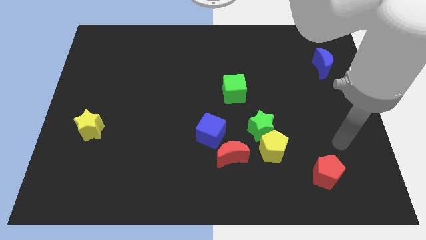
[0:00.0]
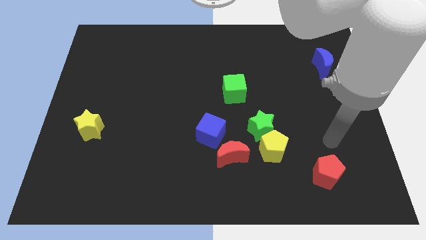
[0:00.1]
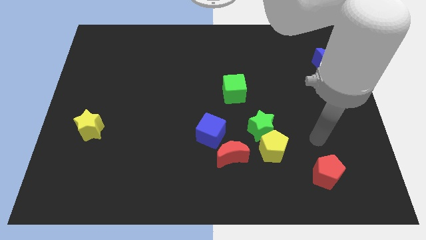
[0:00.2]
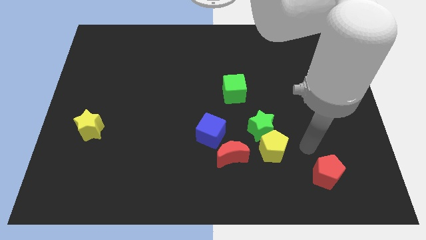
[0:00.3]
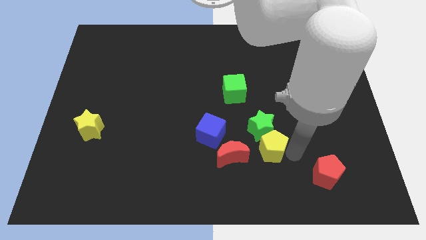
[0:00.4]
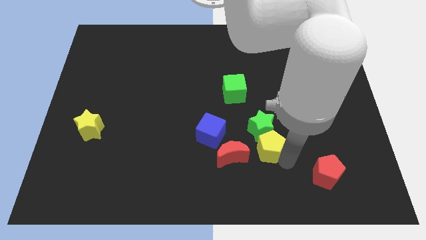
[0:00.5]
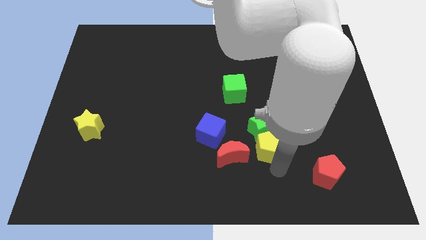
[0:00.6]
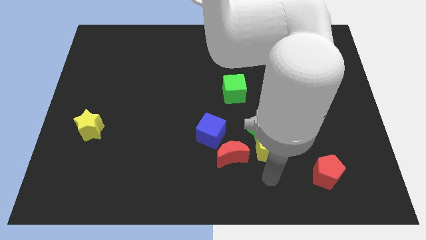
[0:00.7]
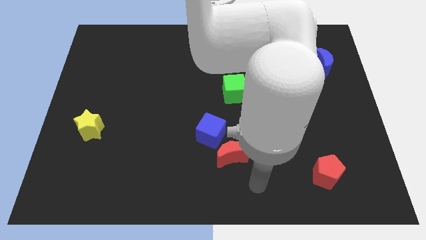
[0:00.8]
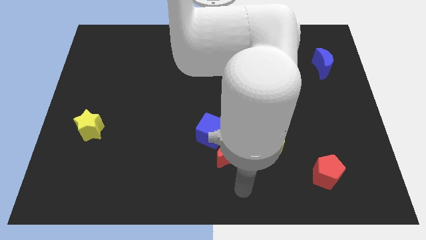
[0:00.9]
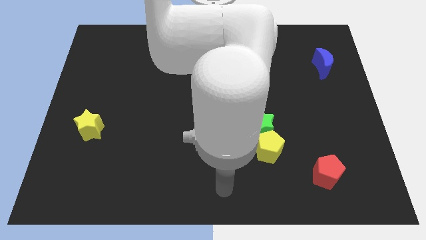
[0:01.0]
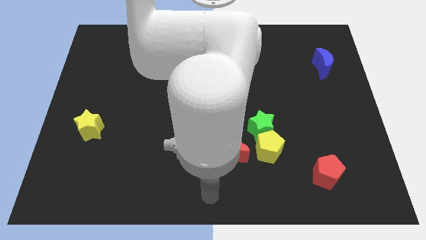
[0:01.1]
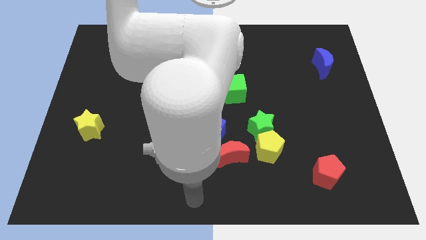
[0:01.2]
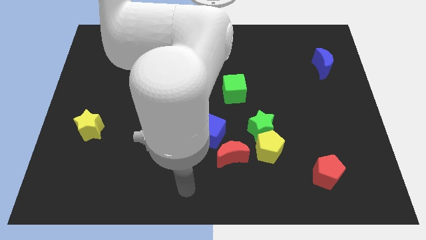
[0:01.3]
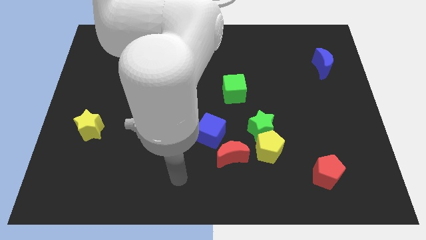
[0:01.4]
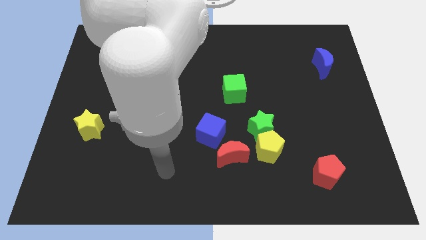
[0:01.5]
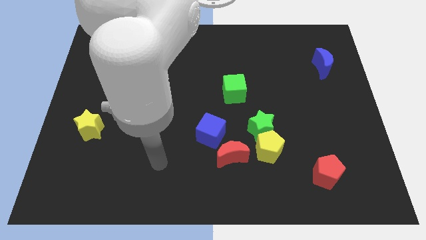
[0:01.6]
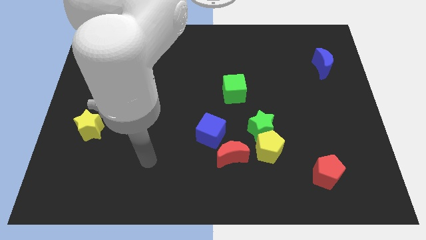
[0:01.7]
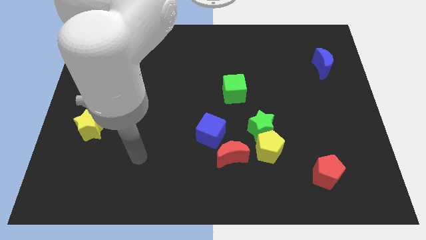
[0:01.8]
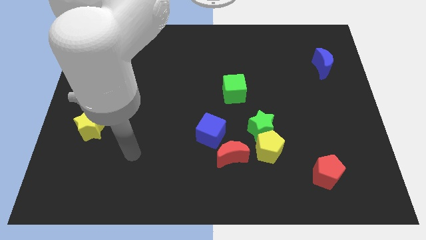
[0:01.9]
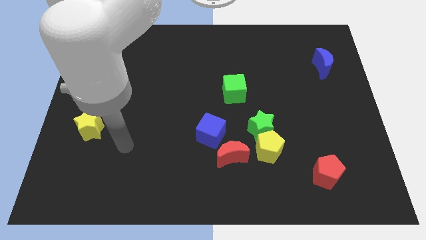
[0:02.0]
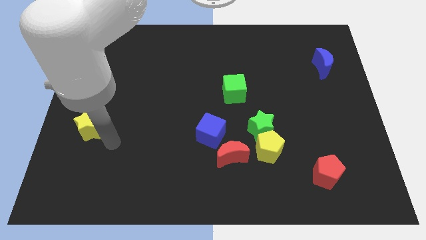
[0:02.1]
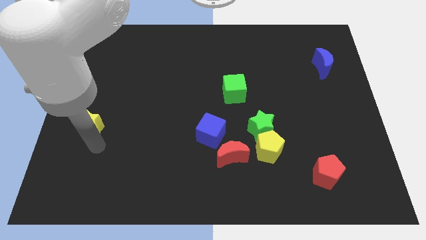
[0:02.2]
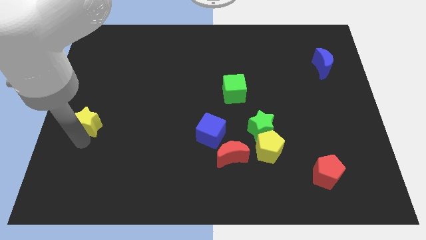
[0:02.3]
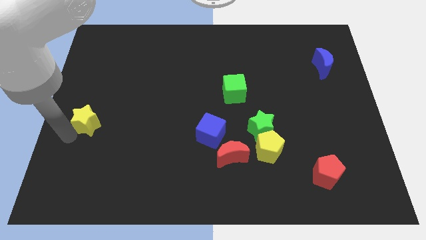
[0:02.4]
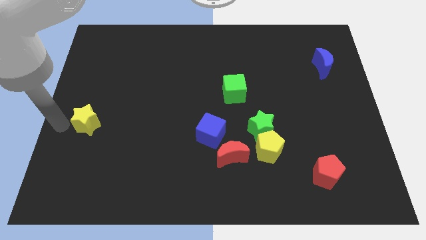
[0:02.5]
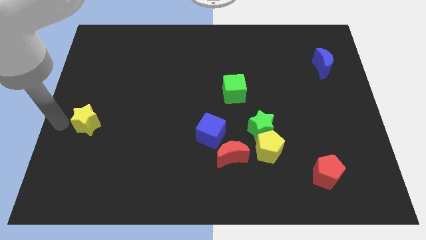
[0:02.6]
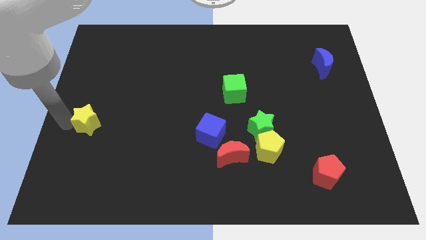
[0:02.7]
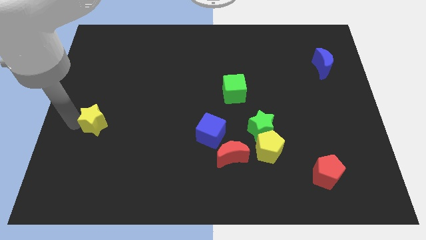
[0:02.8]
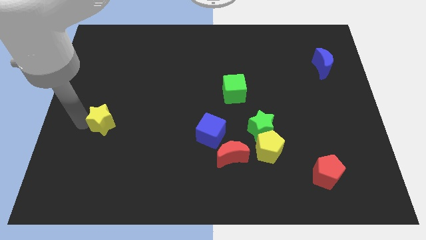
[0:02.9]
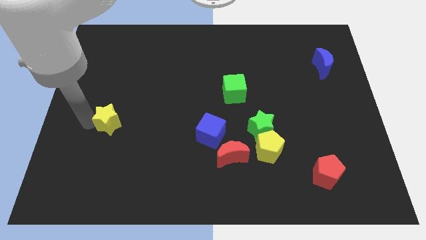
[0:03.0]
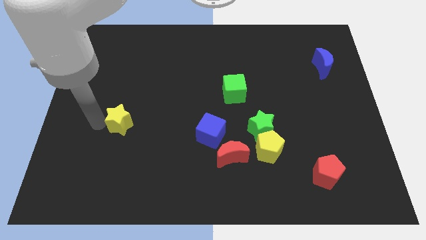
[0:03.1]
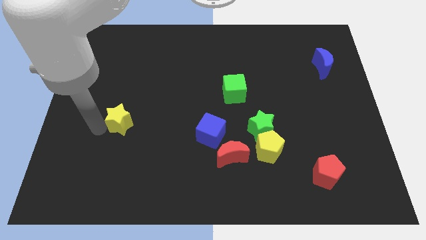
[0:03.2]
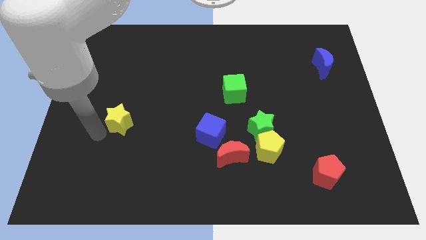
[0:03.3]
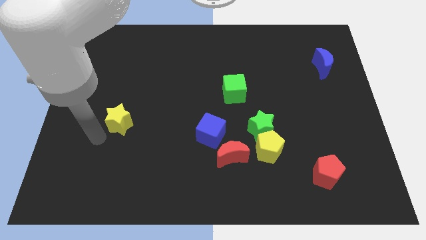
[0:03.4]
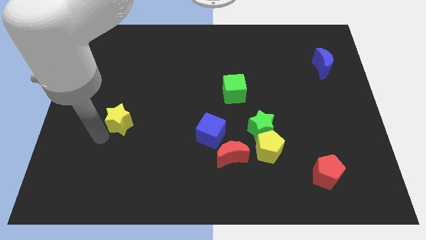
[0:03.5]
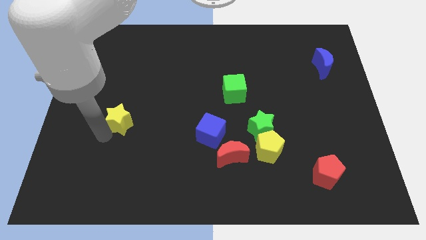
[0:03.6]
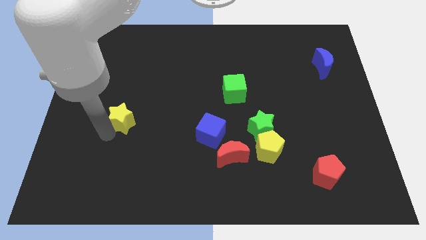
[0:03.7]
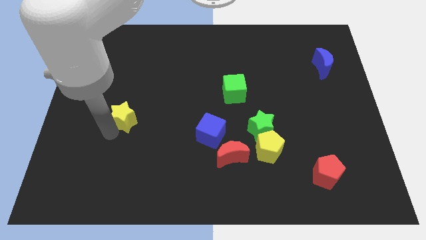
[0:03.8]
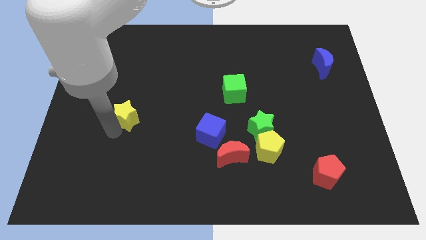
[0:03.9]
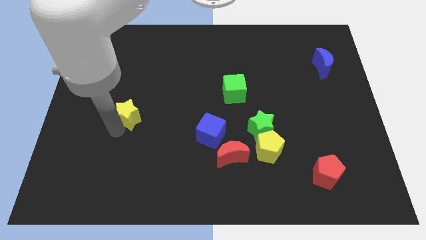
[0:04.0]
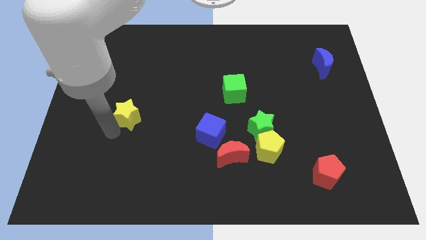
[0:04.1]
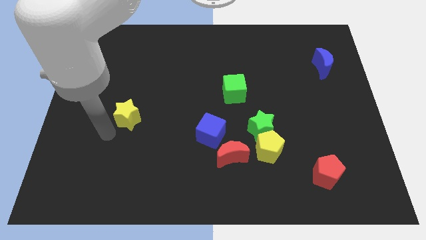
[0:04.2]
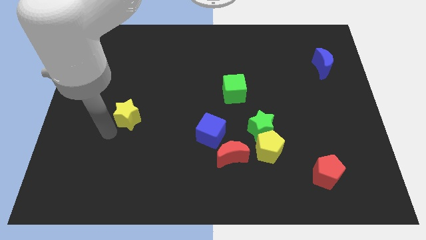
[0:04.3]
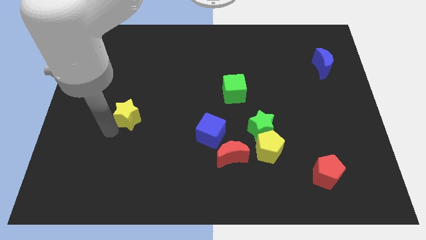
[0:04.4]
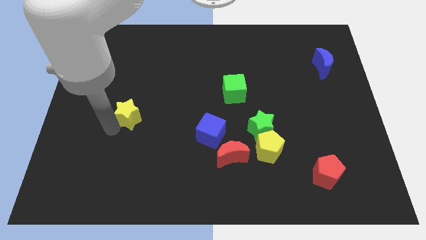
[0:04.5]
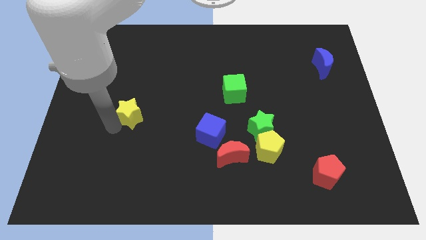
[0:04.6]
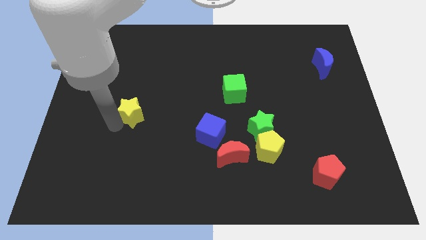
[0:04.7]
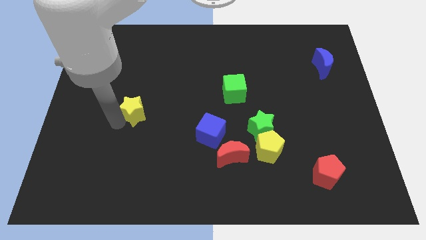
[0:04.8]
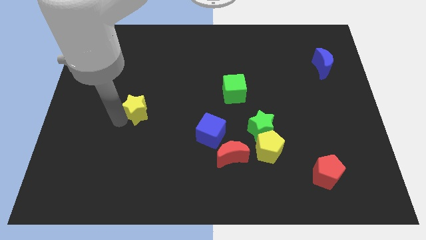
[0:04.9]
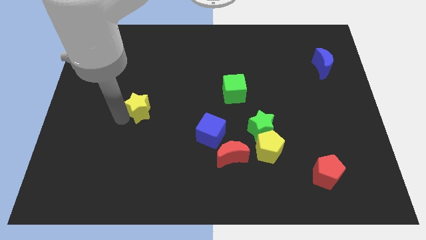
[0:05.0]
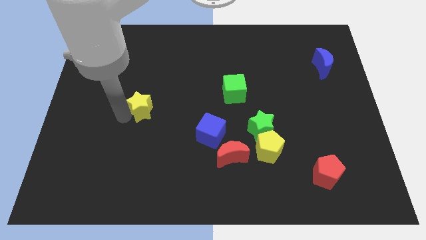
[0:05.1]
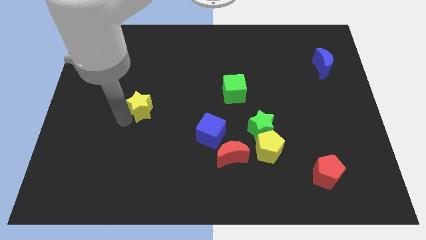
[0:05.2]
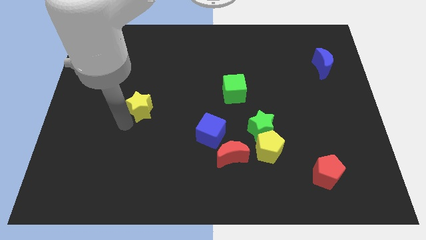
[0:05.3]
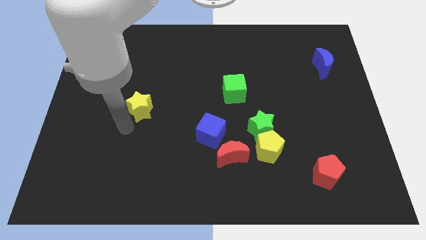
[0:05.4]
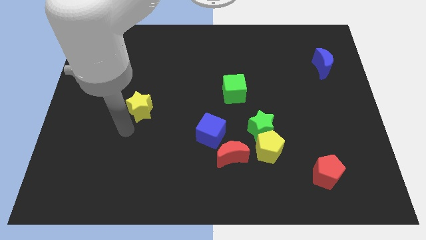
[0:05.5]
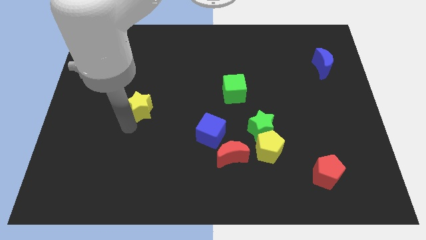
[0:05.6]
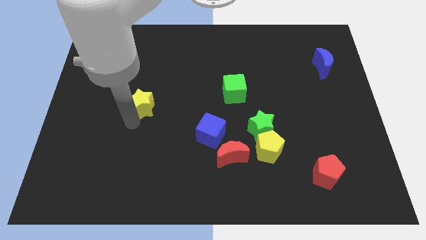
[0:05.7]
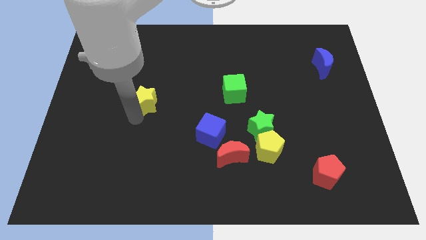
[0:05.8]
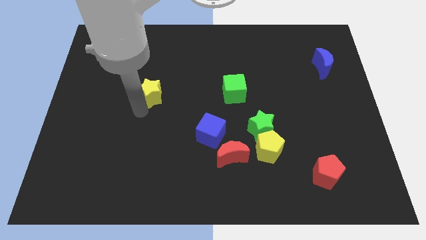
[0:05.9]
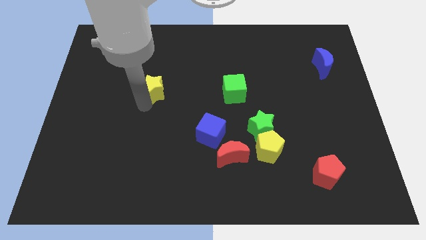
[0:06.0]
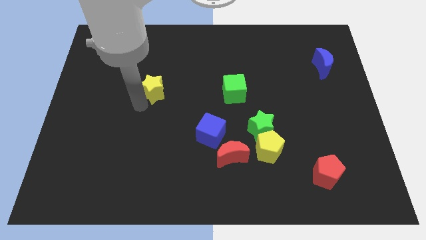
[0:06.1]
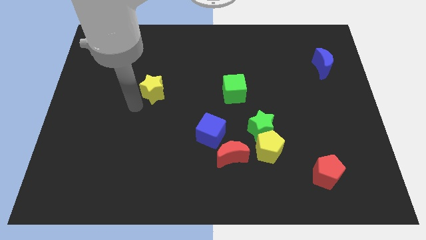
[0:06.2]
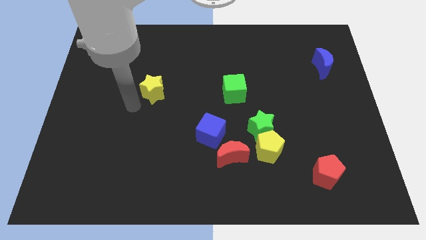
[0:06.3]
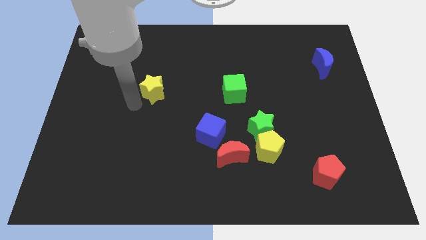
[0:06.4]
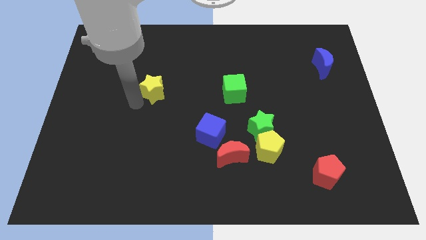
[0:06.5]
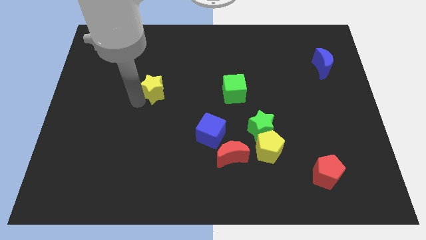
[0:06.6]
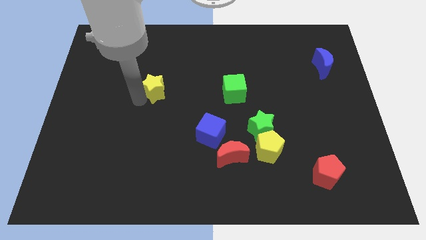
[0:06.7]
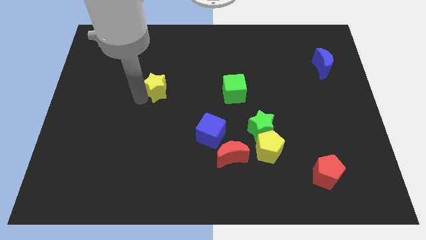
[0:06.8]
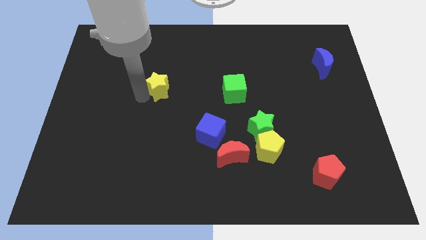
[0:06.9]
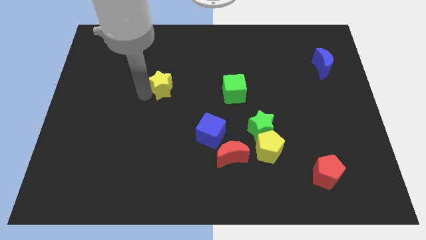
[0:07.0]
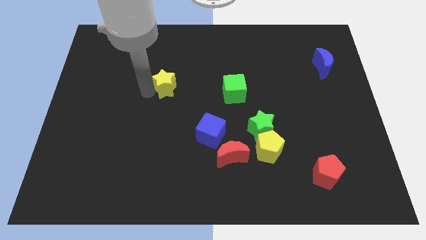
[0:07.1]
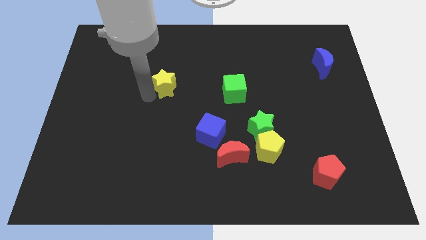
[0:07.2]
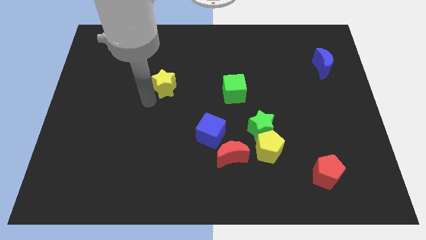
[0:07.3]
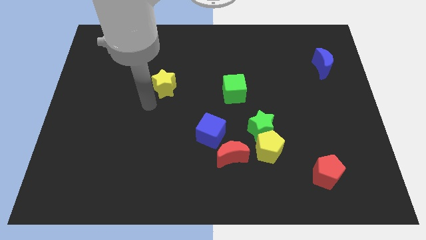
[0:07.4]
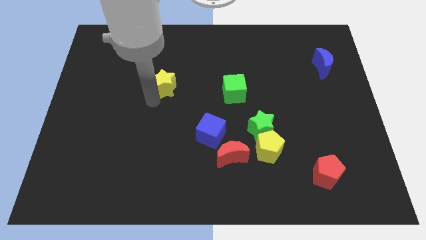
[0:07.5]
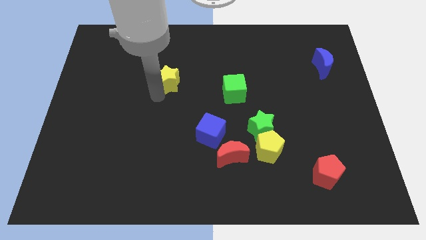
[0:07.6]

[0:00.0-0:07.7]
move the yellow star upwards and right diagonally

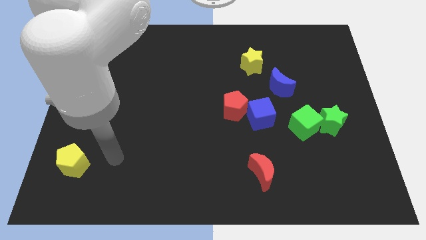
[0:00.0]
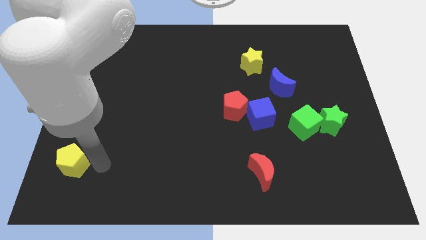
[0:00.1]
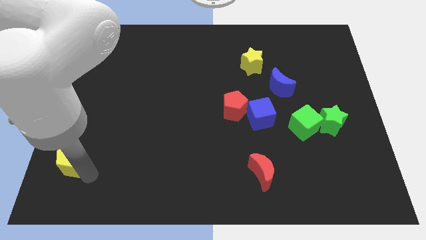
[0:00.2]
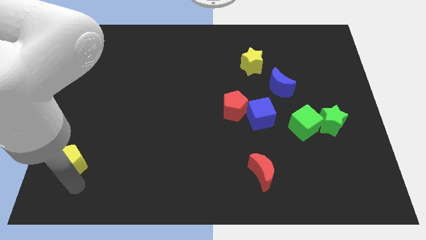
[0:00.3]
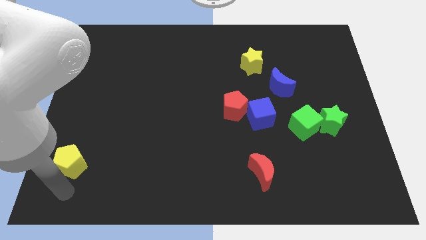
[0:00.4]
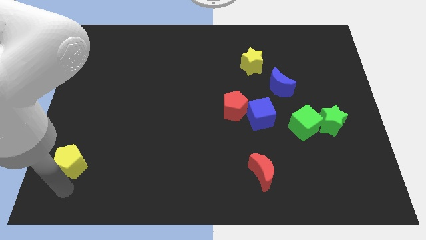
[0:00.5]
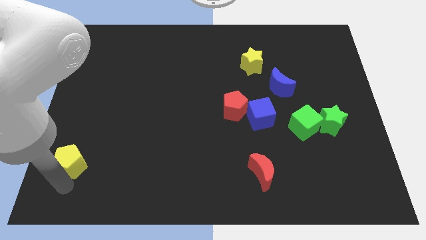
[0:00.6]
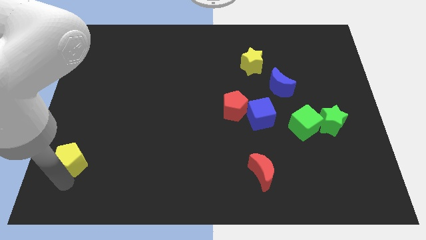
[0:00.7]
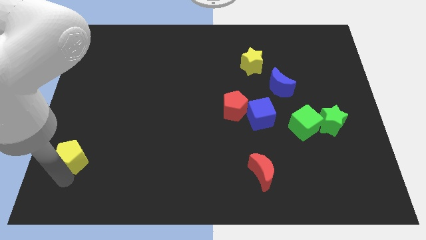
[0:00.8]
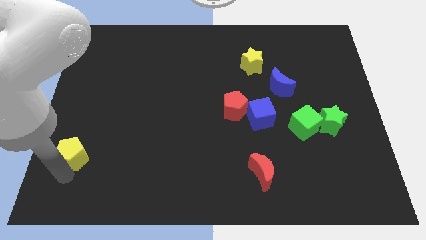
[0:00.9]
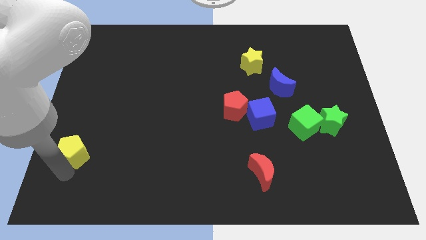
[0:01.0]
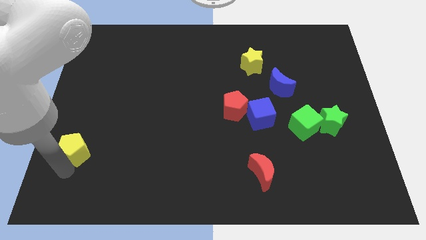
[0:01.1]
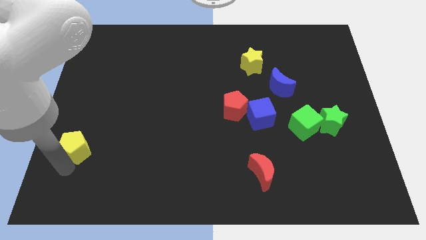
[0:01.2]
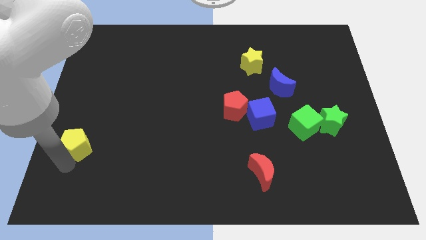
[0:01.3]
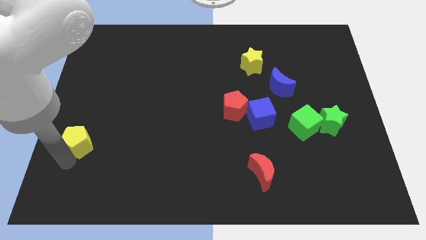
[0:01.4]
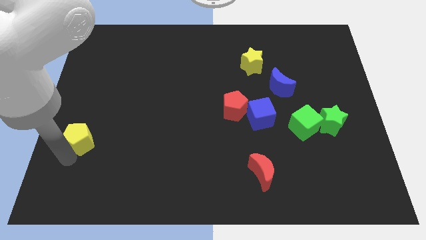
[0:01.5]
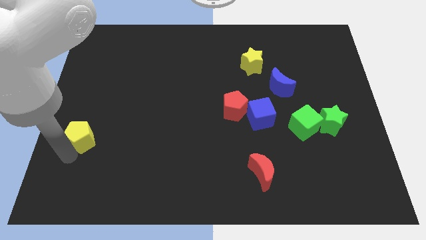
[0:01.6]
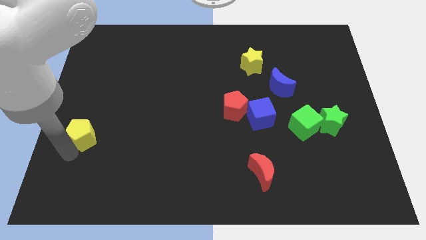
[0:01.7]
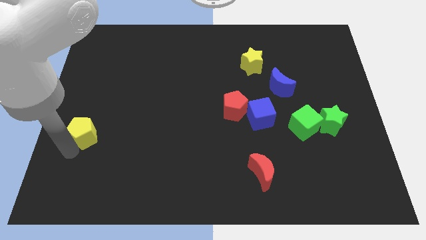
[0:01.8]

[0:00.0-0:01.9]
slightly move the yellow pentagon upwards
